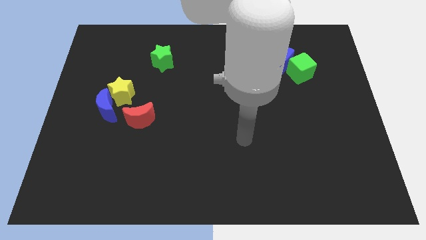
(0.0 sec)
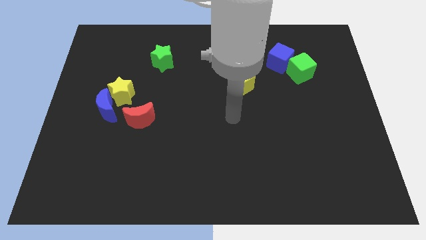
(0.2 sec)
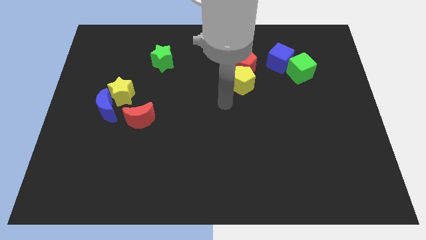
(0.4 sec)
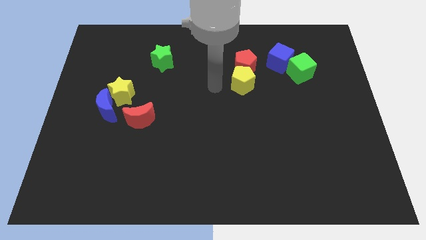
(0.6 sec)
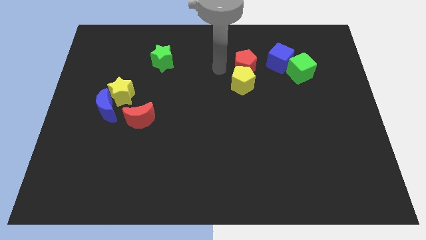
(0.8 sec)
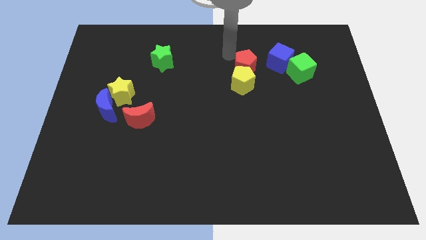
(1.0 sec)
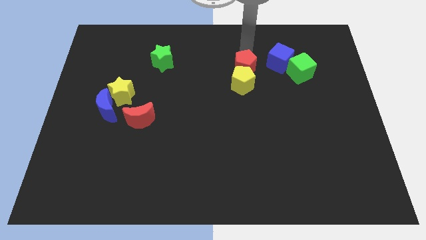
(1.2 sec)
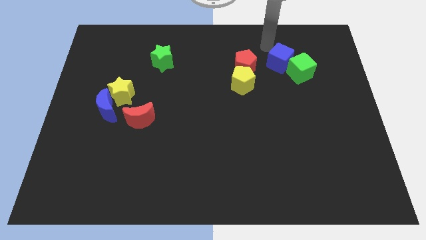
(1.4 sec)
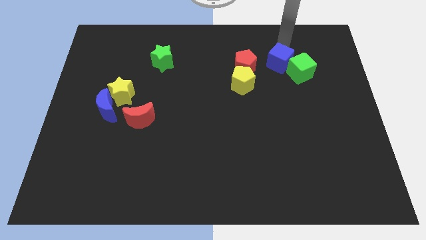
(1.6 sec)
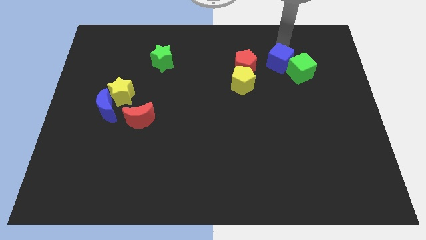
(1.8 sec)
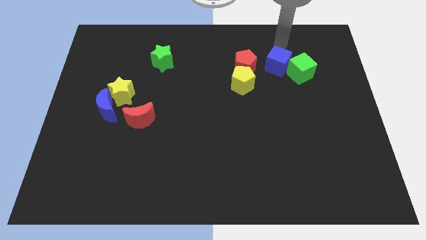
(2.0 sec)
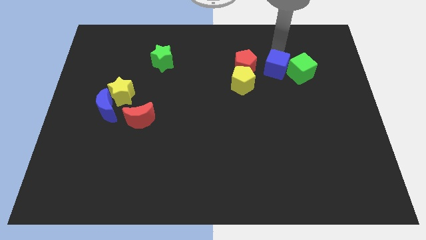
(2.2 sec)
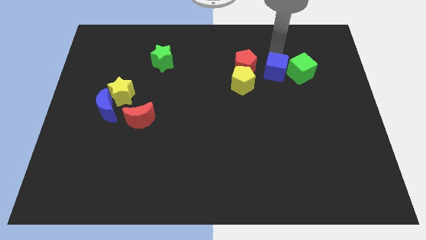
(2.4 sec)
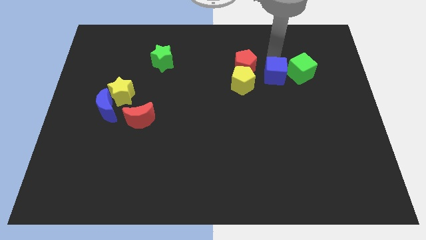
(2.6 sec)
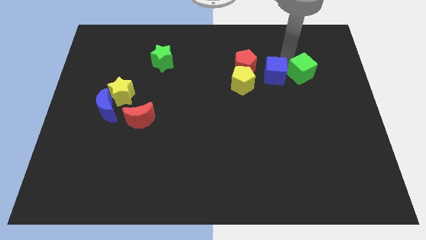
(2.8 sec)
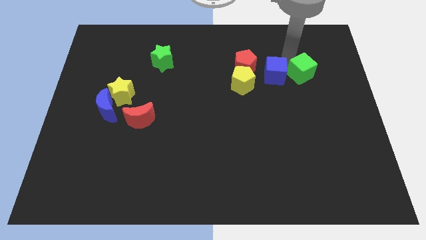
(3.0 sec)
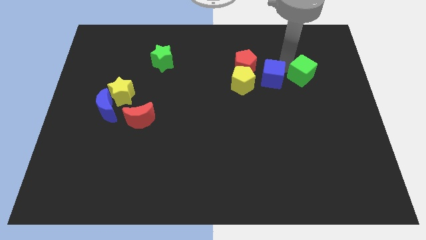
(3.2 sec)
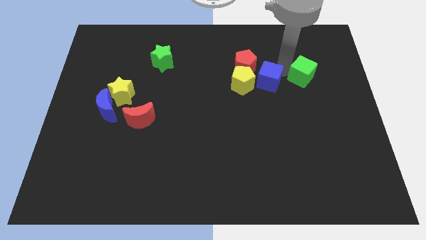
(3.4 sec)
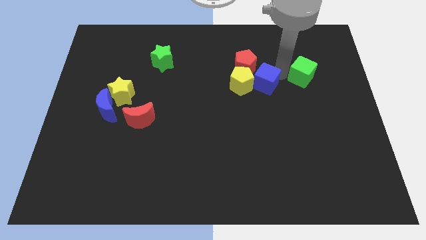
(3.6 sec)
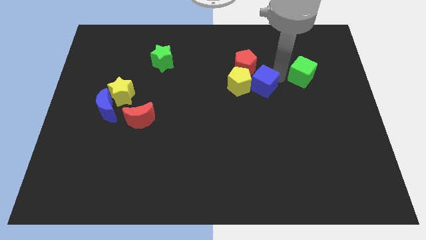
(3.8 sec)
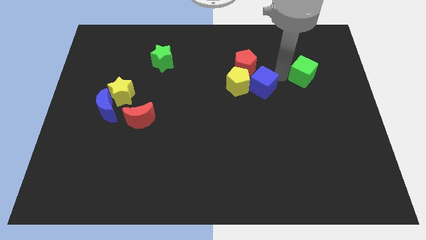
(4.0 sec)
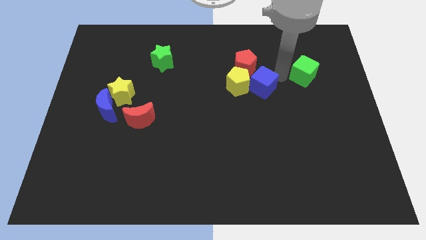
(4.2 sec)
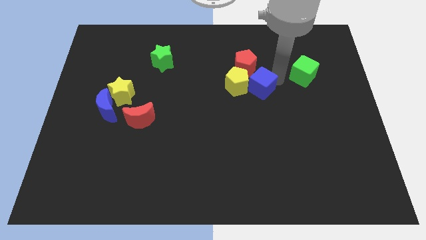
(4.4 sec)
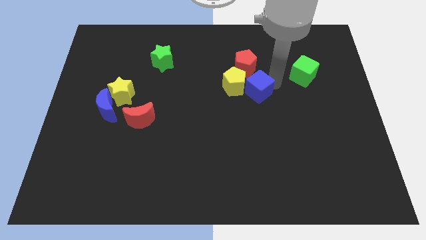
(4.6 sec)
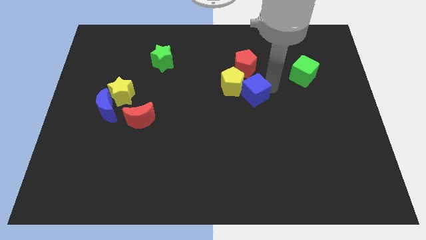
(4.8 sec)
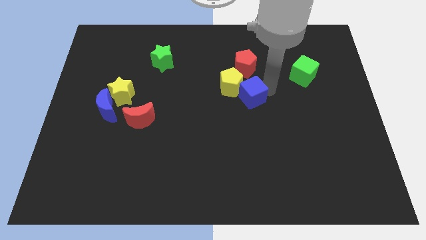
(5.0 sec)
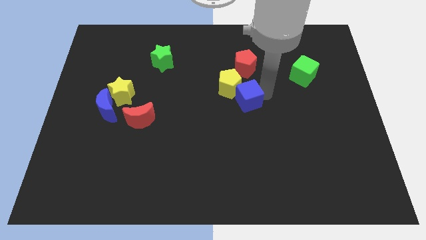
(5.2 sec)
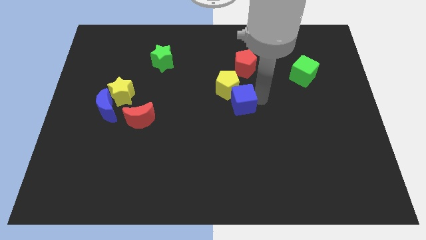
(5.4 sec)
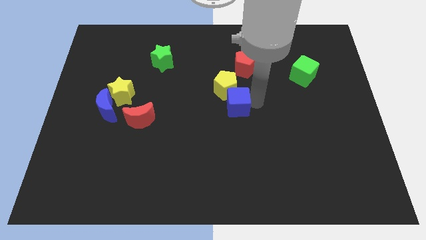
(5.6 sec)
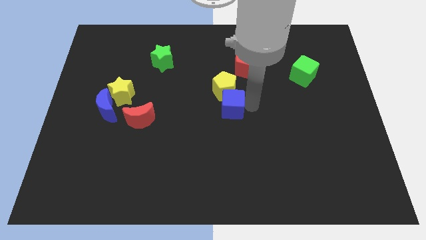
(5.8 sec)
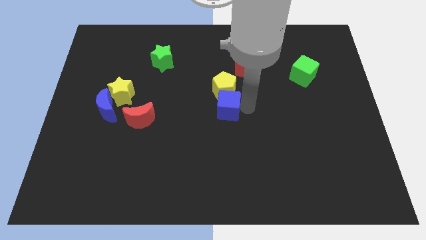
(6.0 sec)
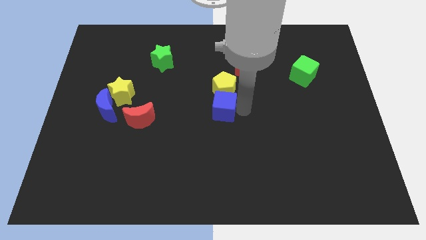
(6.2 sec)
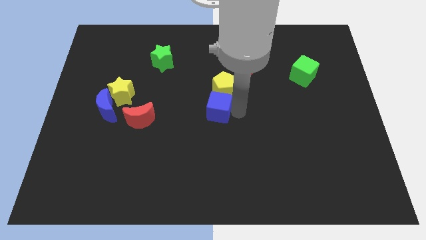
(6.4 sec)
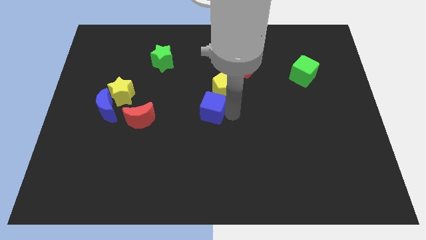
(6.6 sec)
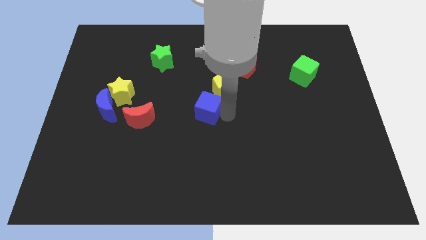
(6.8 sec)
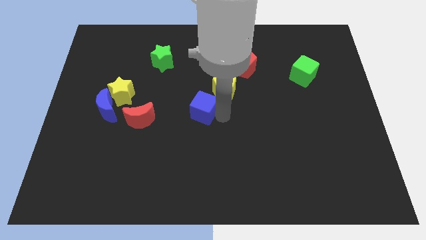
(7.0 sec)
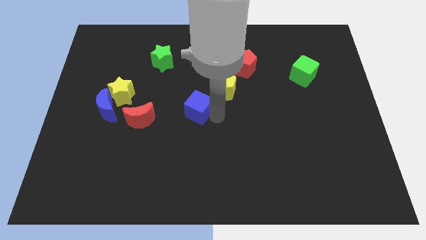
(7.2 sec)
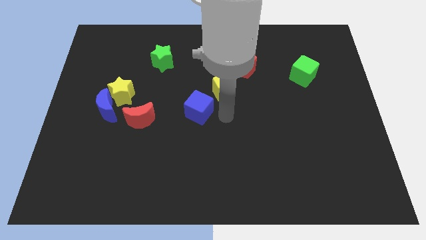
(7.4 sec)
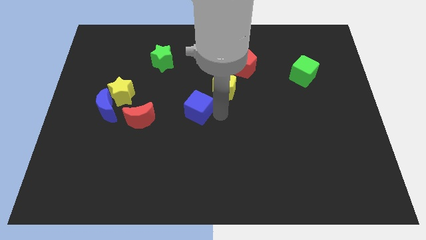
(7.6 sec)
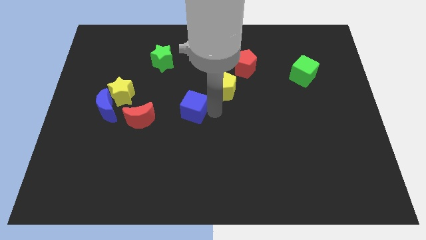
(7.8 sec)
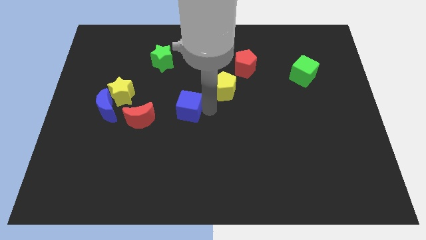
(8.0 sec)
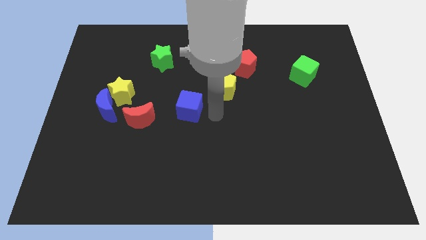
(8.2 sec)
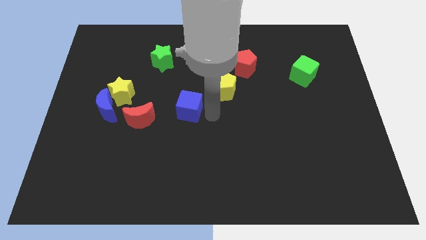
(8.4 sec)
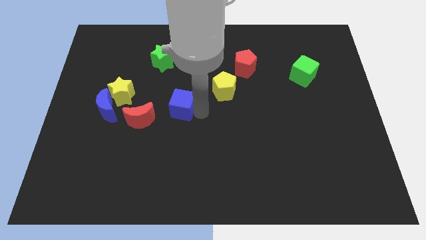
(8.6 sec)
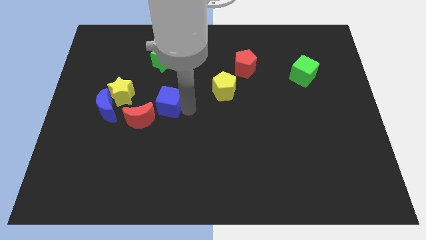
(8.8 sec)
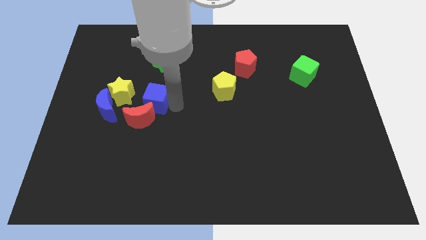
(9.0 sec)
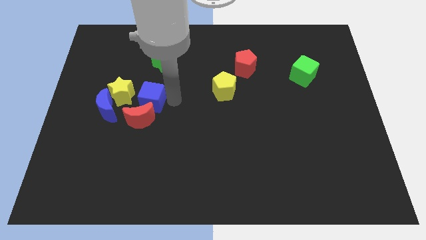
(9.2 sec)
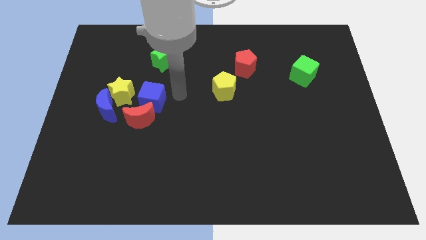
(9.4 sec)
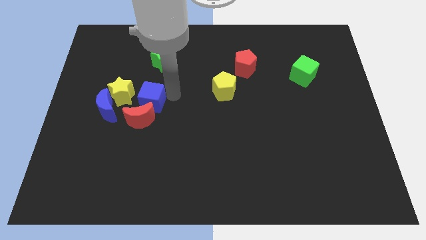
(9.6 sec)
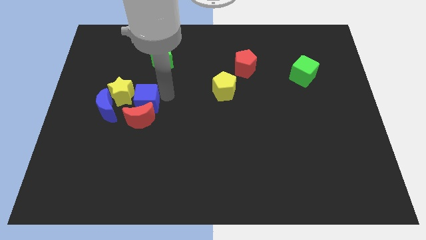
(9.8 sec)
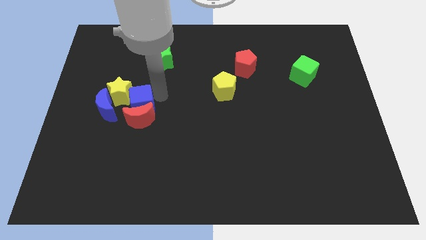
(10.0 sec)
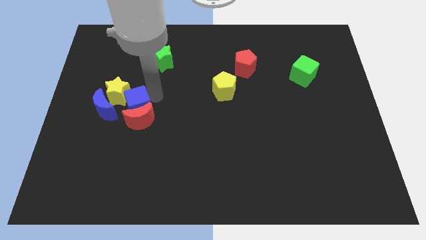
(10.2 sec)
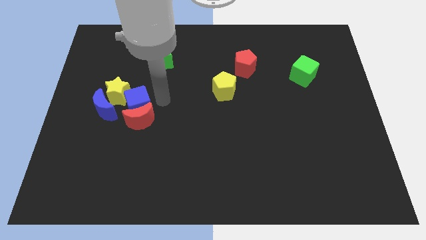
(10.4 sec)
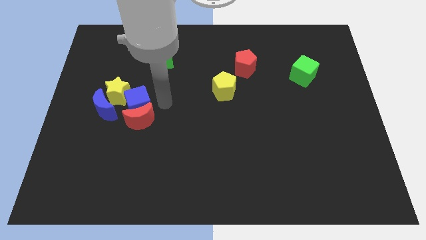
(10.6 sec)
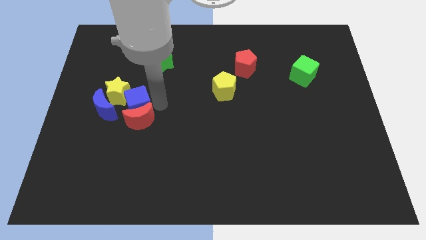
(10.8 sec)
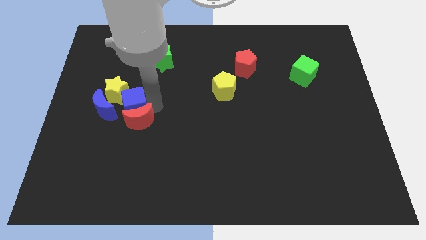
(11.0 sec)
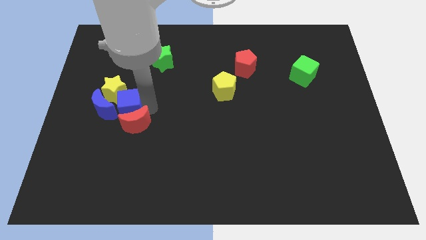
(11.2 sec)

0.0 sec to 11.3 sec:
move the blue cube towards the blue moon

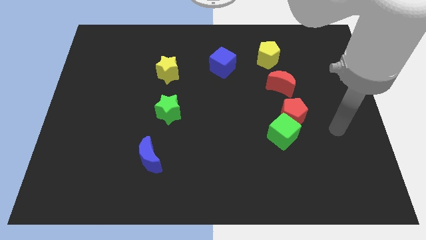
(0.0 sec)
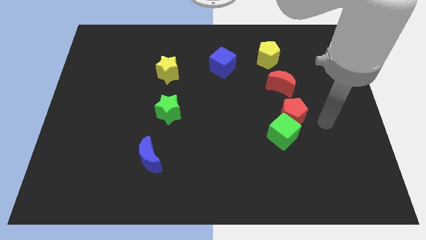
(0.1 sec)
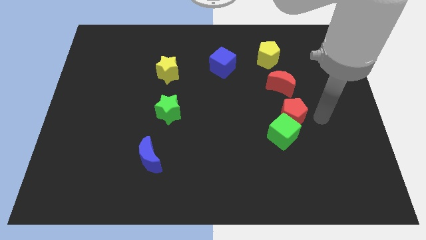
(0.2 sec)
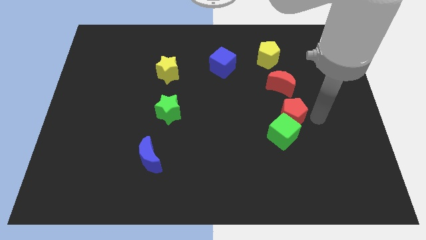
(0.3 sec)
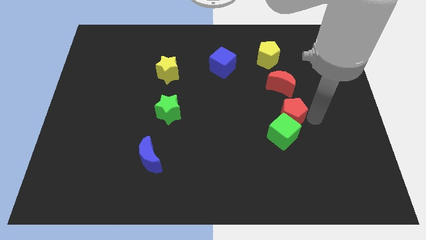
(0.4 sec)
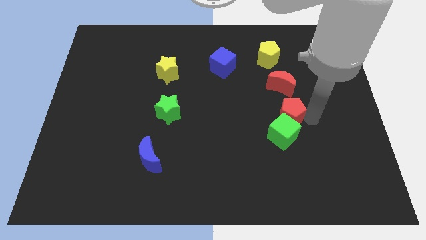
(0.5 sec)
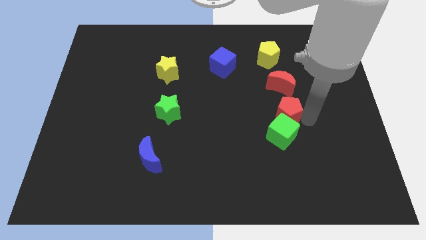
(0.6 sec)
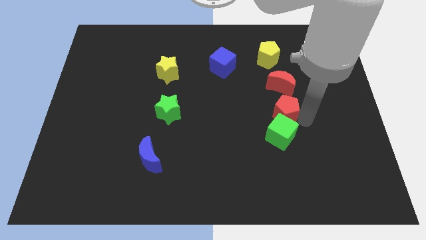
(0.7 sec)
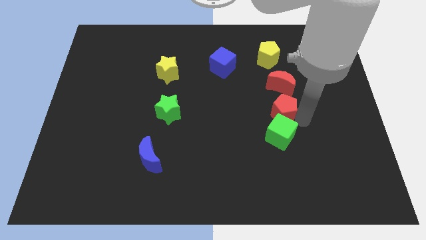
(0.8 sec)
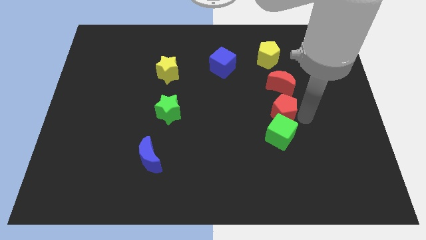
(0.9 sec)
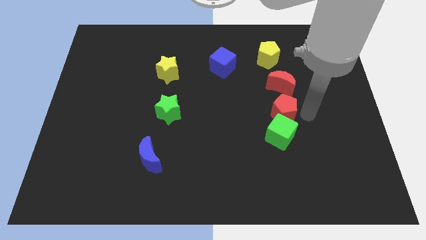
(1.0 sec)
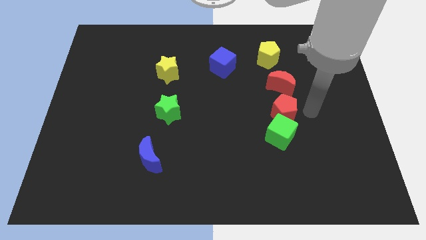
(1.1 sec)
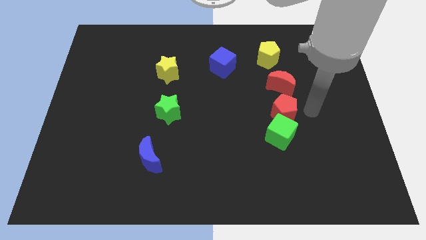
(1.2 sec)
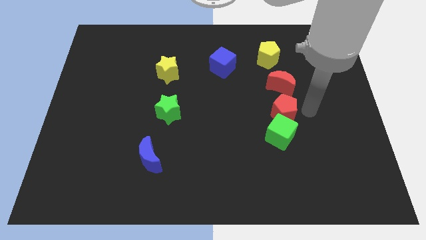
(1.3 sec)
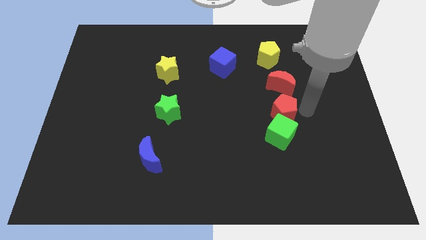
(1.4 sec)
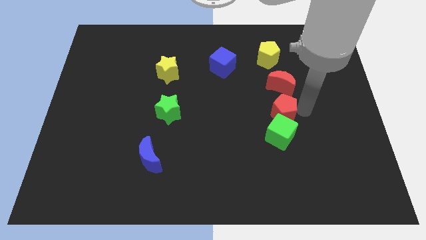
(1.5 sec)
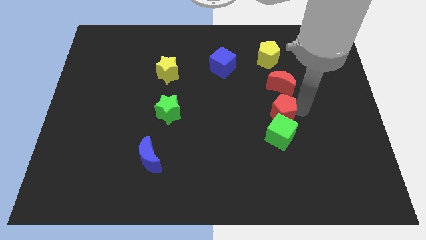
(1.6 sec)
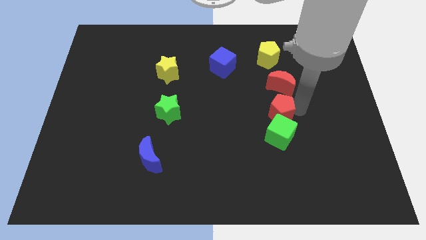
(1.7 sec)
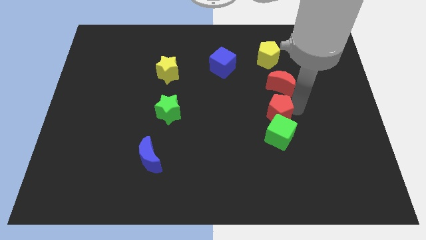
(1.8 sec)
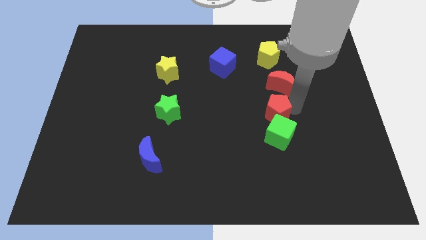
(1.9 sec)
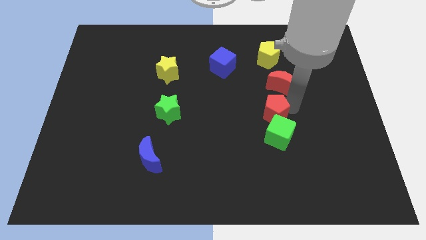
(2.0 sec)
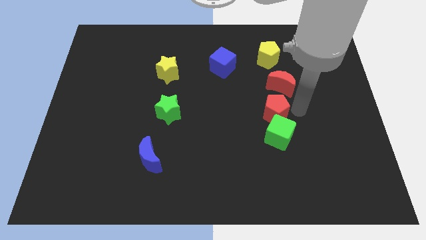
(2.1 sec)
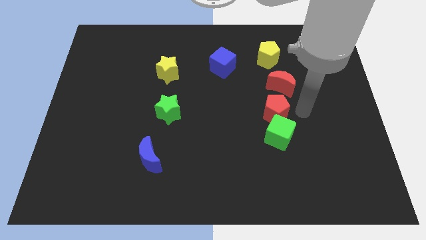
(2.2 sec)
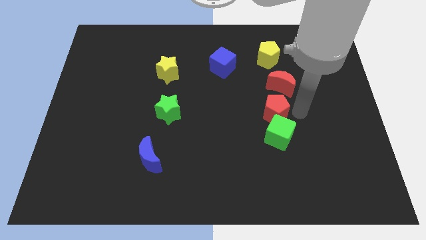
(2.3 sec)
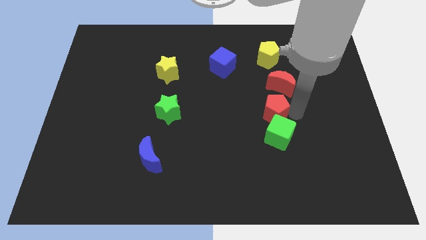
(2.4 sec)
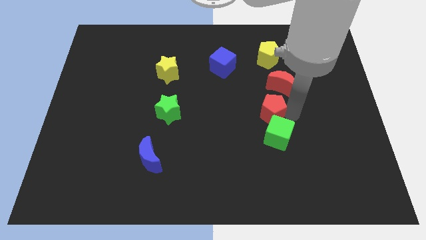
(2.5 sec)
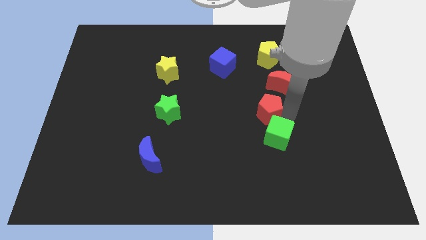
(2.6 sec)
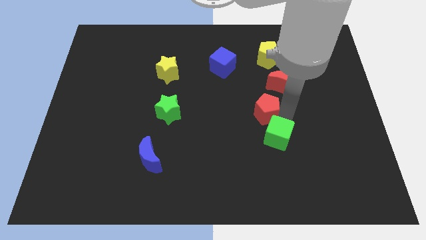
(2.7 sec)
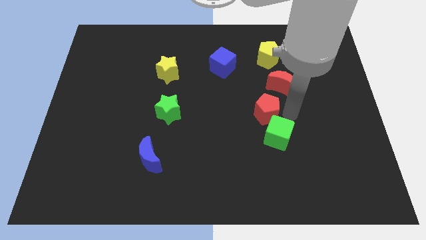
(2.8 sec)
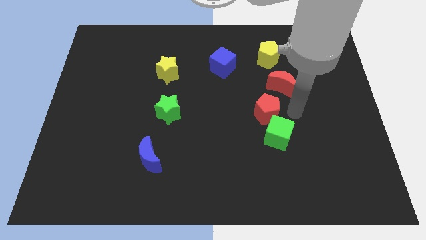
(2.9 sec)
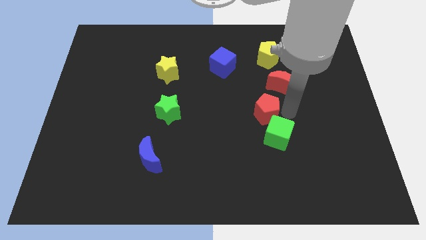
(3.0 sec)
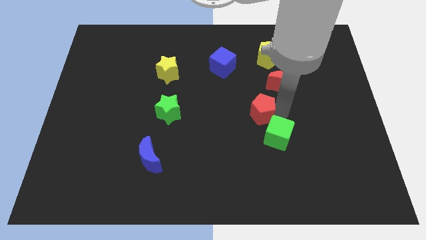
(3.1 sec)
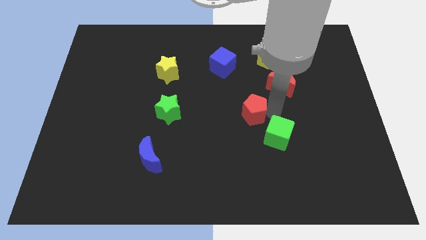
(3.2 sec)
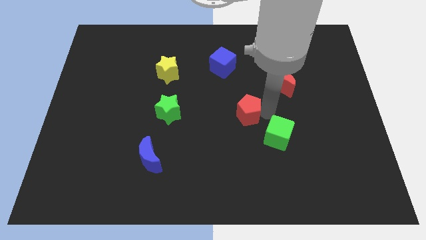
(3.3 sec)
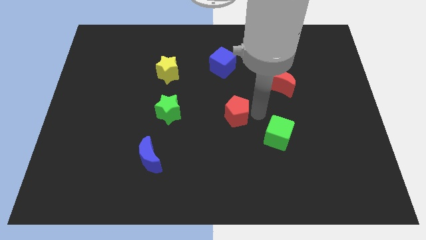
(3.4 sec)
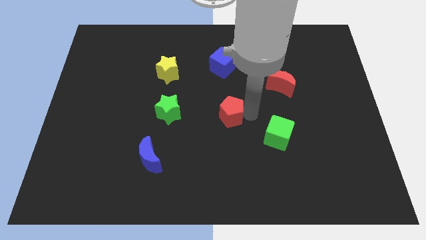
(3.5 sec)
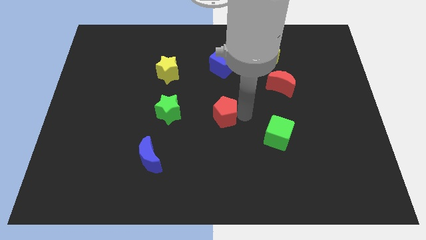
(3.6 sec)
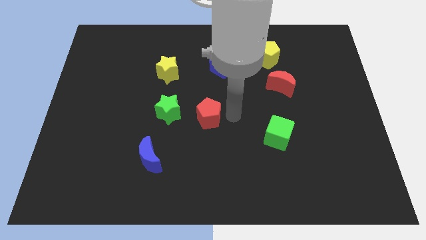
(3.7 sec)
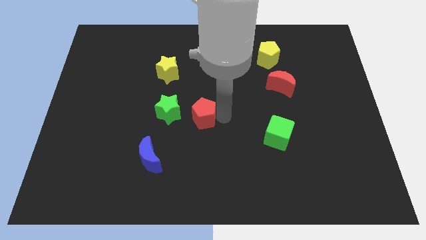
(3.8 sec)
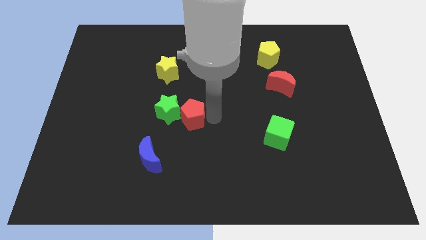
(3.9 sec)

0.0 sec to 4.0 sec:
move the red pentagon to the green star
